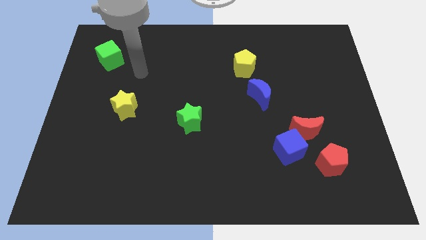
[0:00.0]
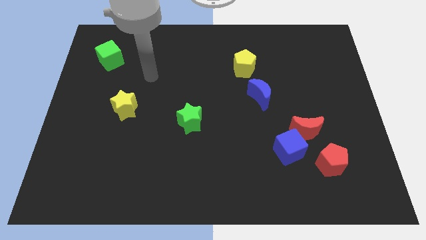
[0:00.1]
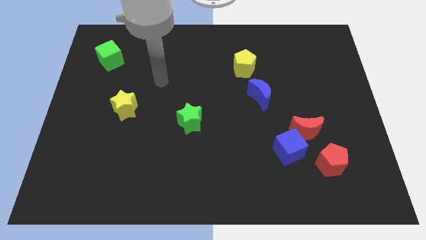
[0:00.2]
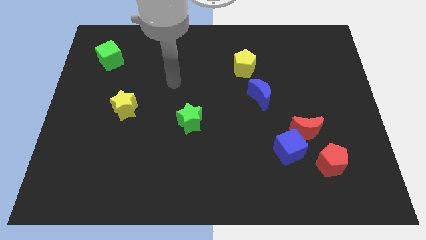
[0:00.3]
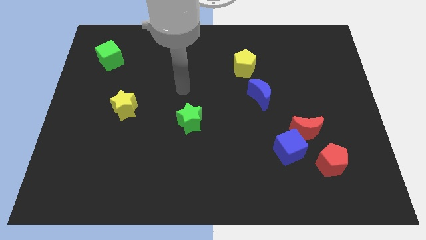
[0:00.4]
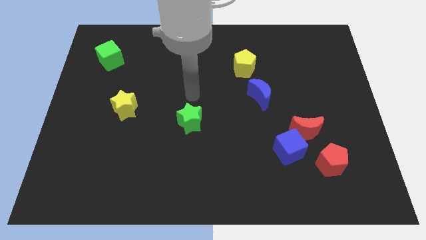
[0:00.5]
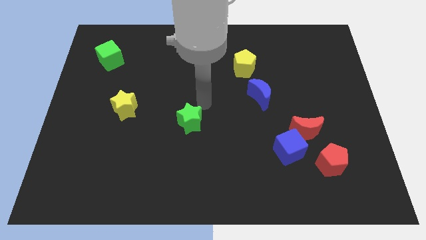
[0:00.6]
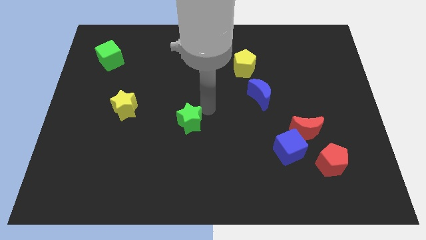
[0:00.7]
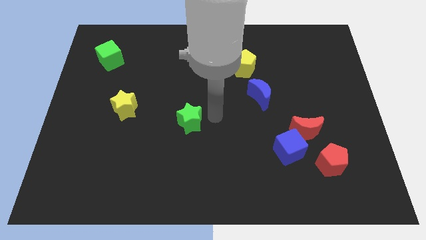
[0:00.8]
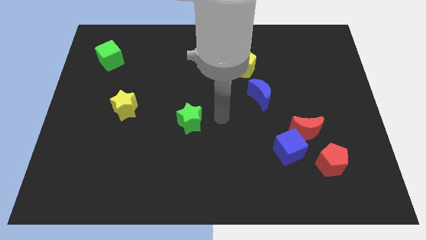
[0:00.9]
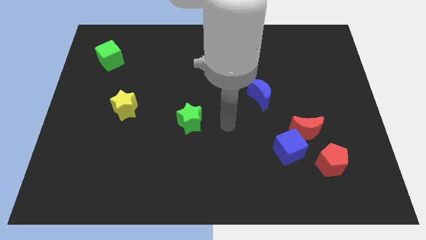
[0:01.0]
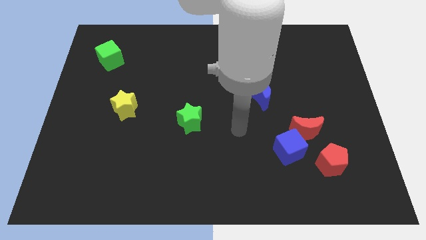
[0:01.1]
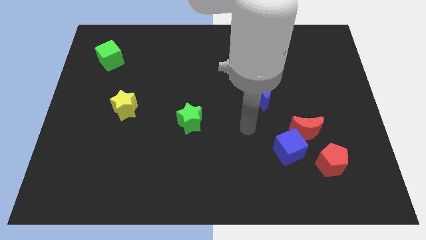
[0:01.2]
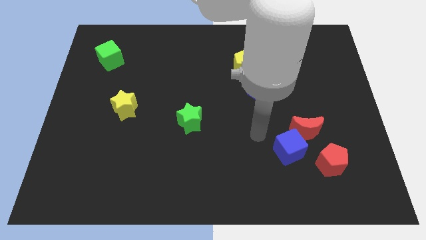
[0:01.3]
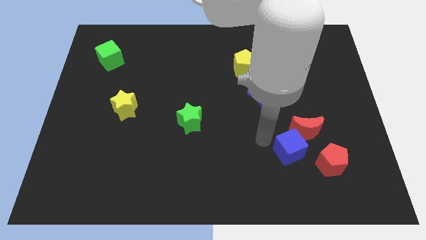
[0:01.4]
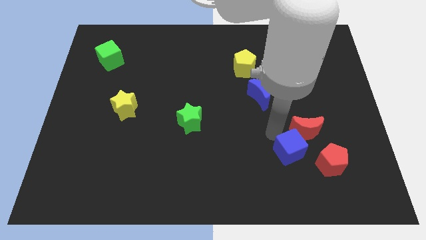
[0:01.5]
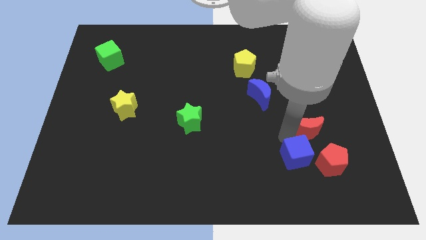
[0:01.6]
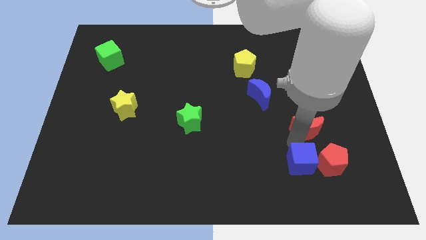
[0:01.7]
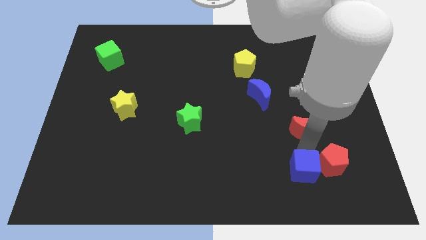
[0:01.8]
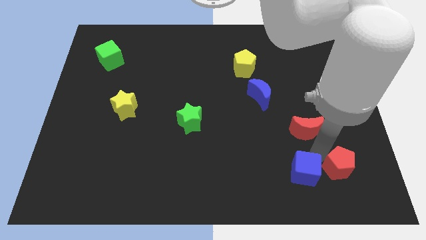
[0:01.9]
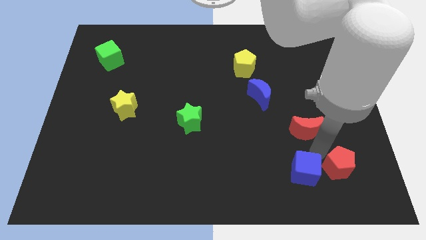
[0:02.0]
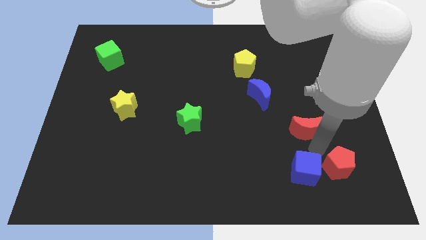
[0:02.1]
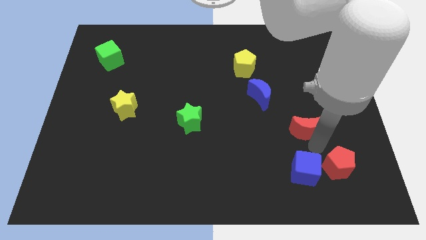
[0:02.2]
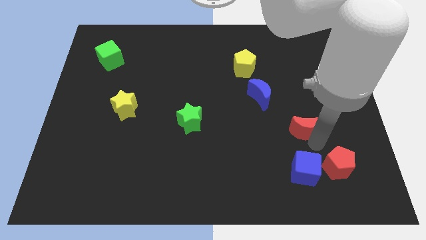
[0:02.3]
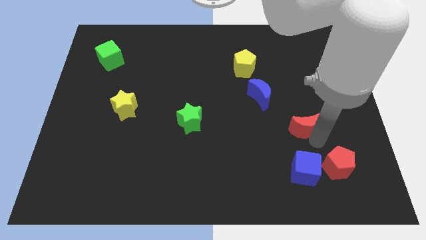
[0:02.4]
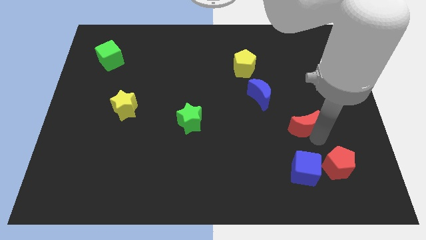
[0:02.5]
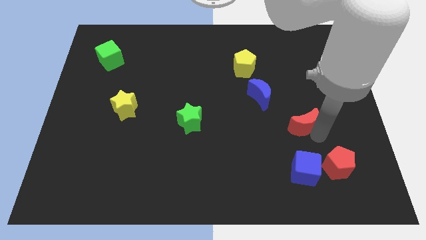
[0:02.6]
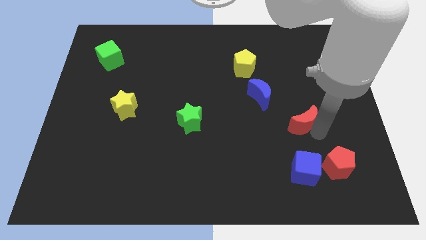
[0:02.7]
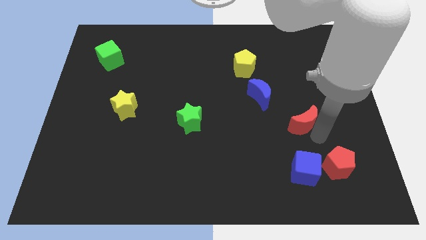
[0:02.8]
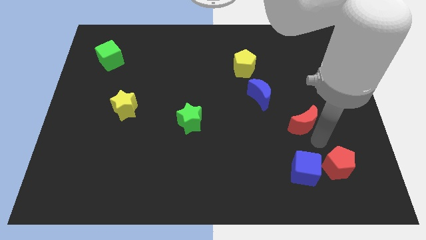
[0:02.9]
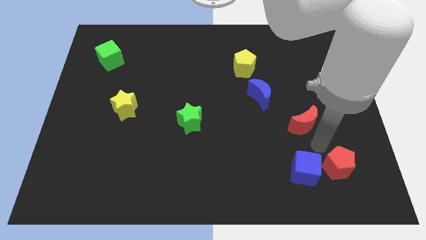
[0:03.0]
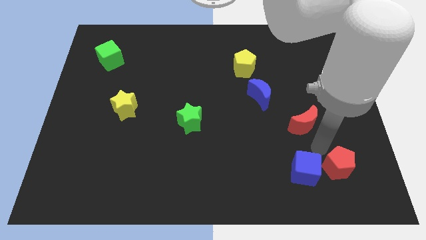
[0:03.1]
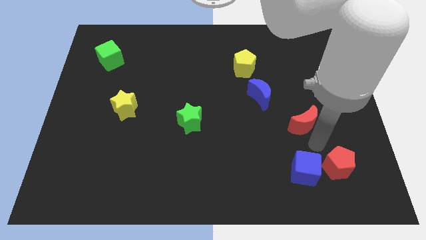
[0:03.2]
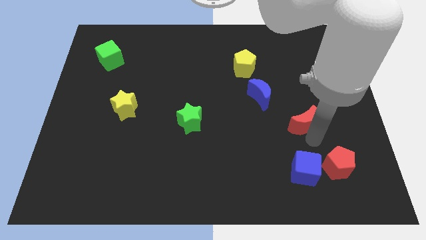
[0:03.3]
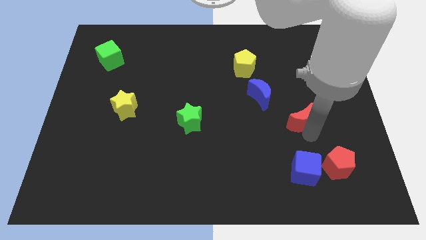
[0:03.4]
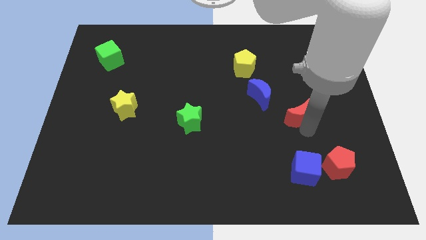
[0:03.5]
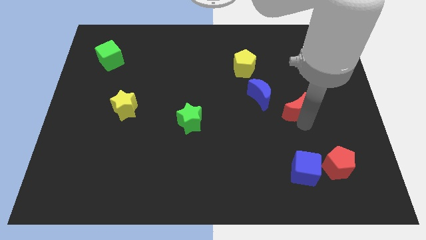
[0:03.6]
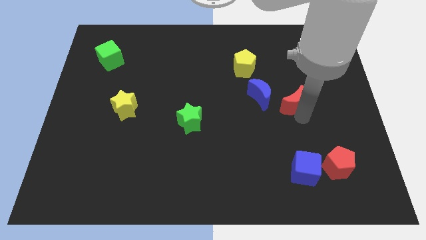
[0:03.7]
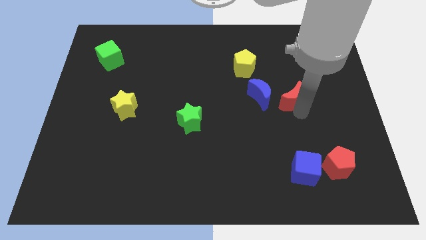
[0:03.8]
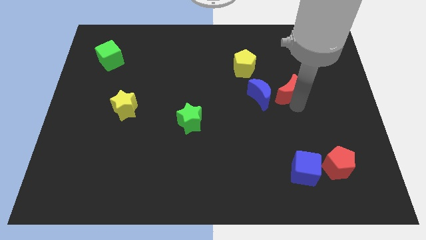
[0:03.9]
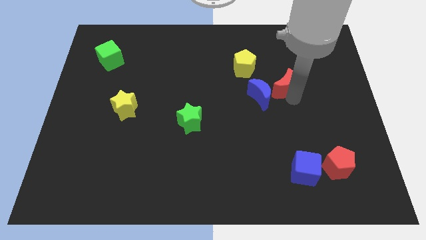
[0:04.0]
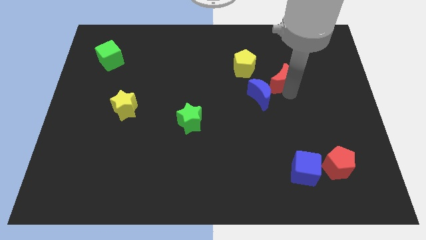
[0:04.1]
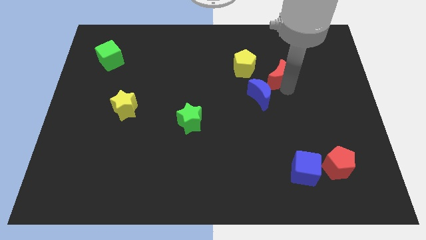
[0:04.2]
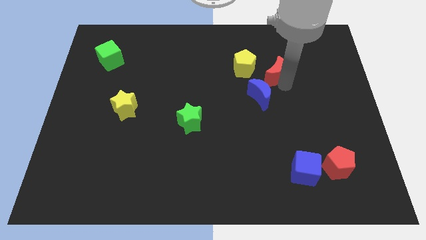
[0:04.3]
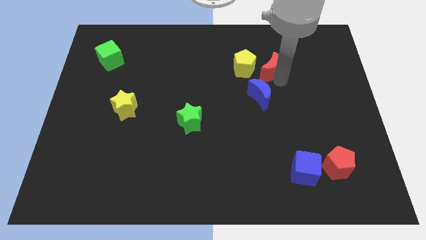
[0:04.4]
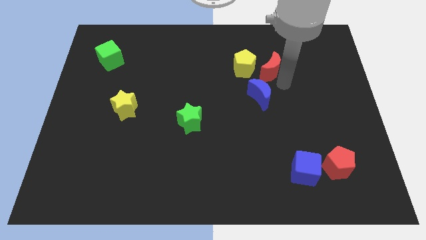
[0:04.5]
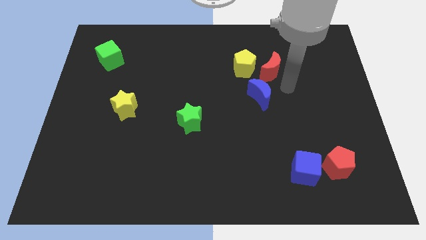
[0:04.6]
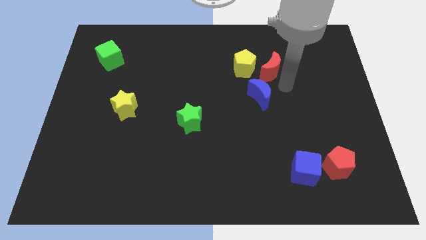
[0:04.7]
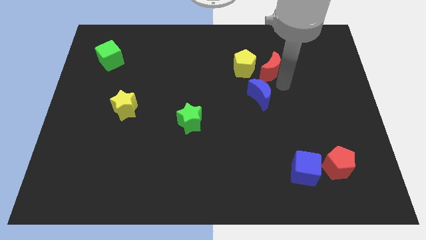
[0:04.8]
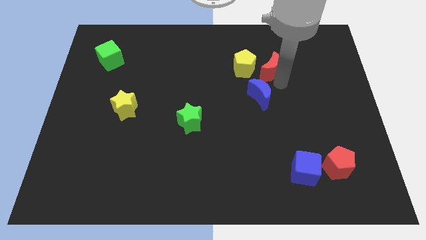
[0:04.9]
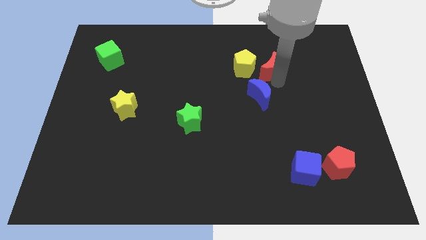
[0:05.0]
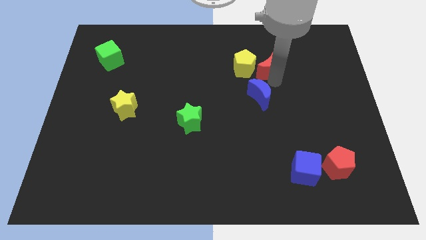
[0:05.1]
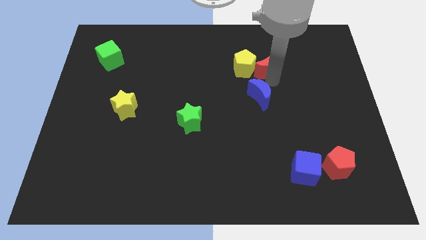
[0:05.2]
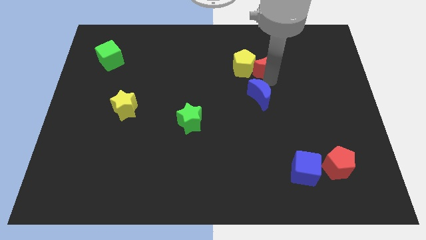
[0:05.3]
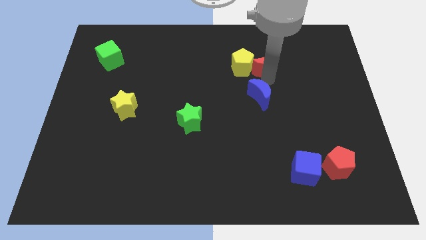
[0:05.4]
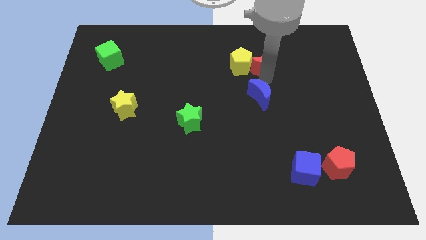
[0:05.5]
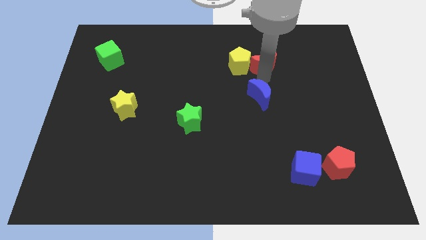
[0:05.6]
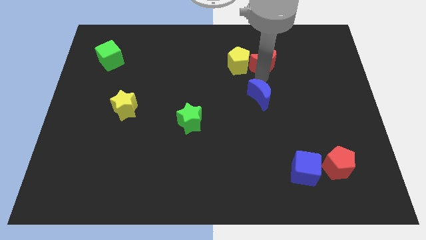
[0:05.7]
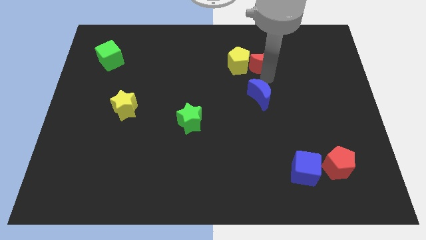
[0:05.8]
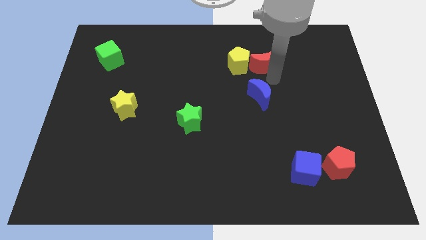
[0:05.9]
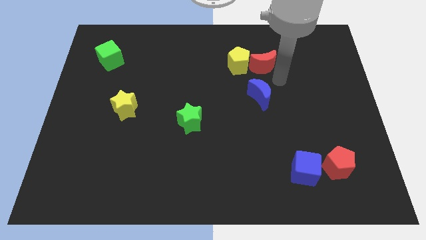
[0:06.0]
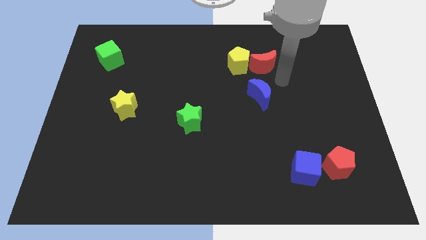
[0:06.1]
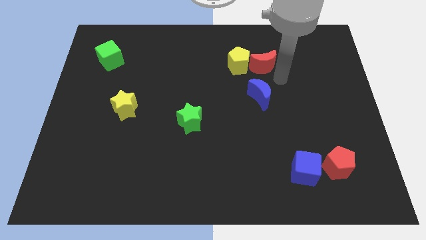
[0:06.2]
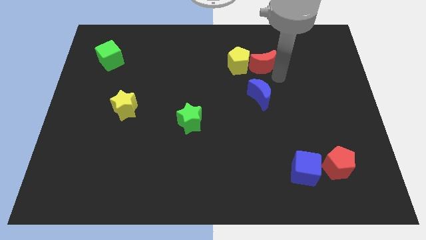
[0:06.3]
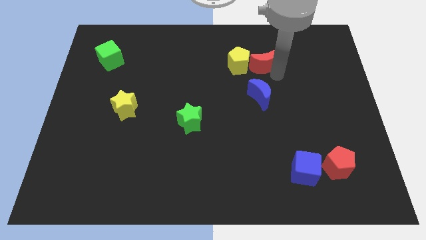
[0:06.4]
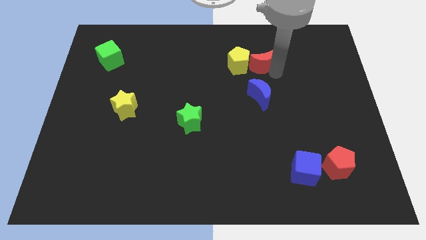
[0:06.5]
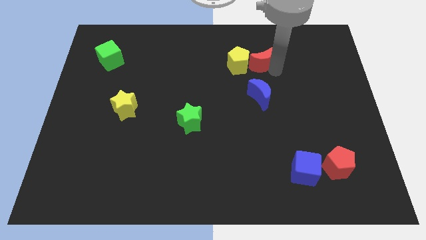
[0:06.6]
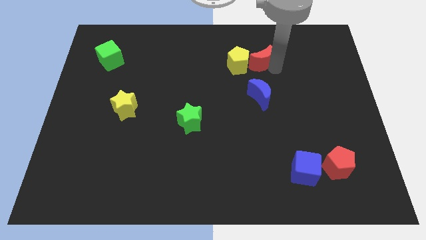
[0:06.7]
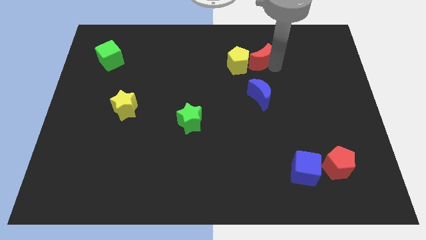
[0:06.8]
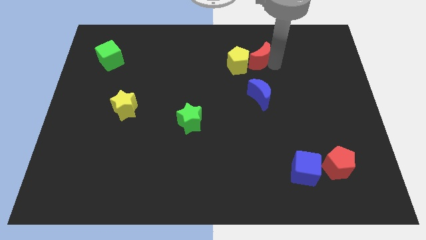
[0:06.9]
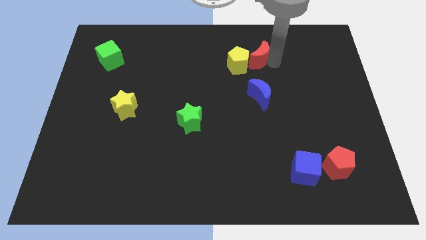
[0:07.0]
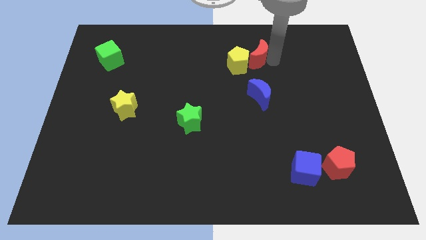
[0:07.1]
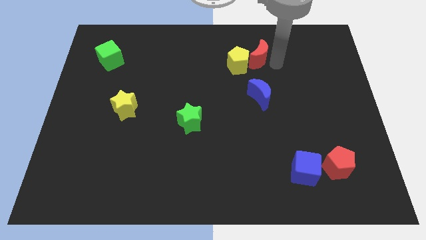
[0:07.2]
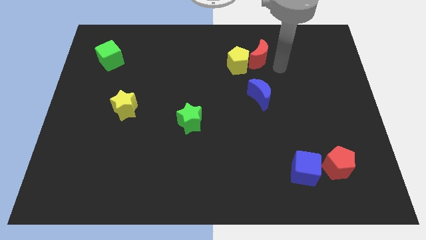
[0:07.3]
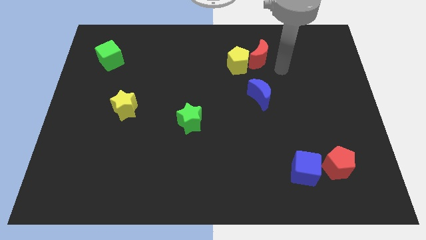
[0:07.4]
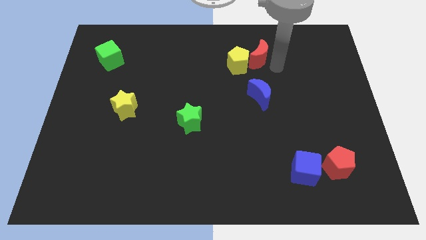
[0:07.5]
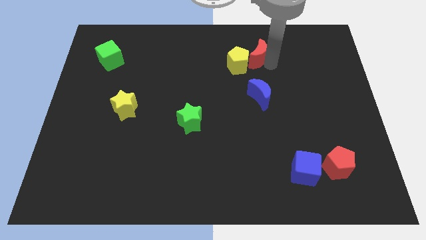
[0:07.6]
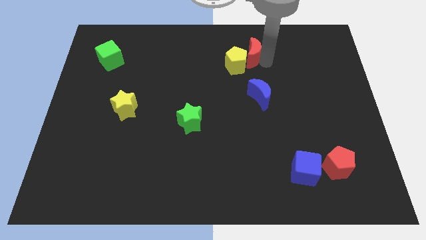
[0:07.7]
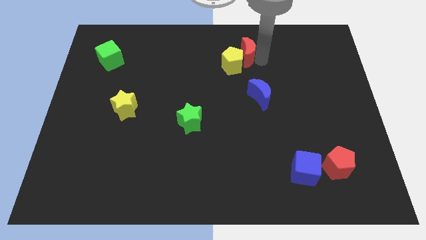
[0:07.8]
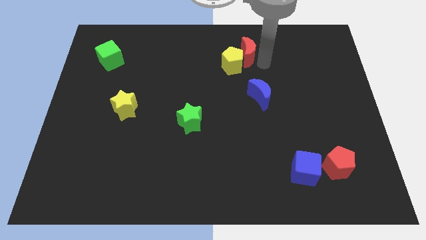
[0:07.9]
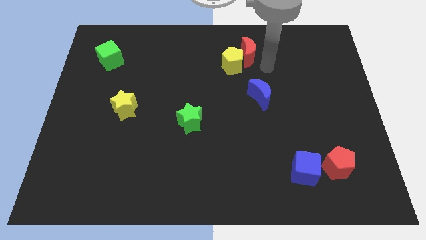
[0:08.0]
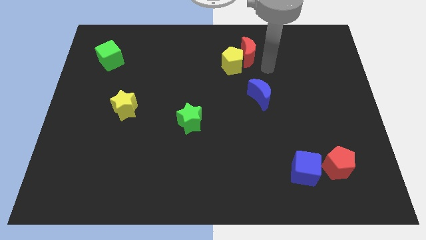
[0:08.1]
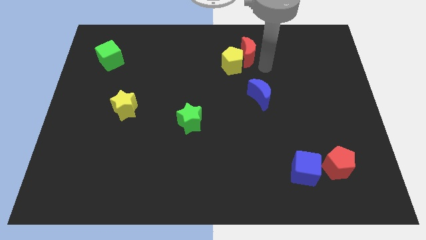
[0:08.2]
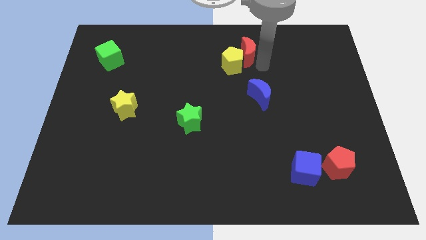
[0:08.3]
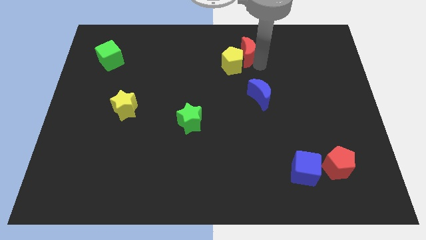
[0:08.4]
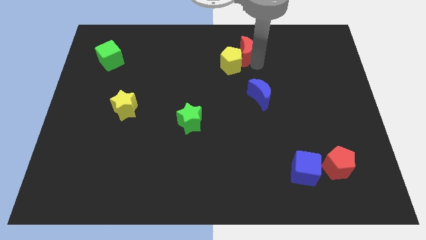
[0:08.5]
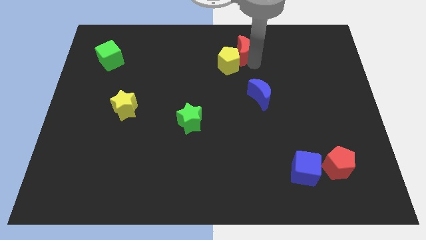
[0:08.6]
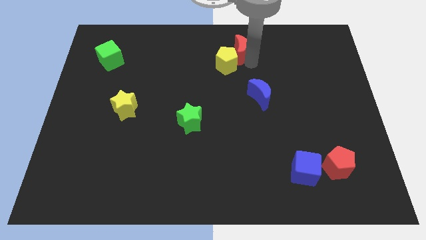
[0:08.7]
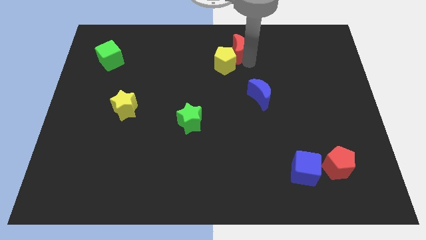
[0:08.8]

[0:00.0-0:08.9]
put the red moon to the top side
